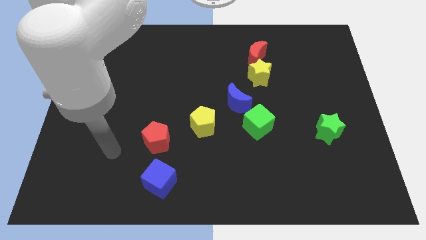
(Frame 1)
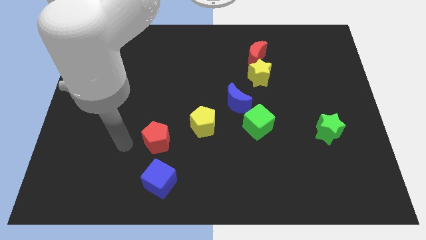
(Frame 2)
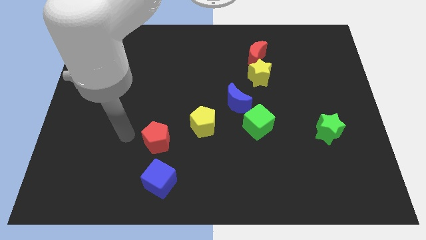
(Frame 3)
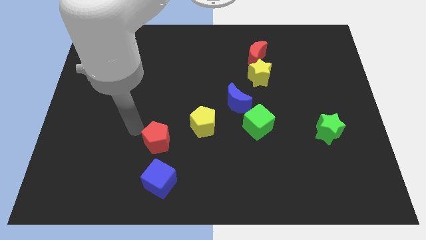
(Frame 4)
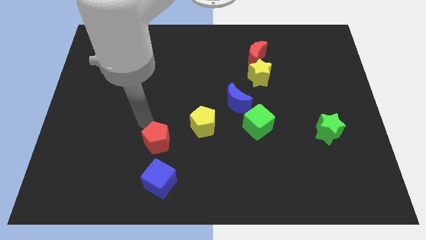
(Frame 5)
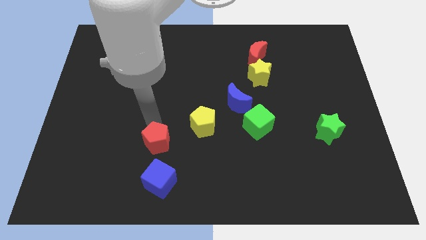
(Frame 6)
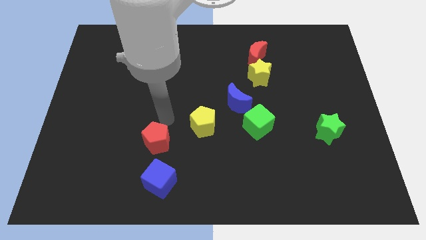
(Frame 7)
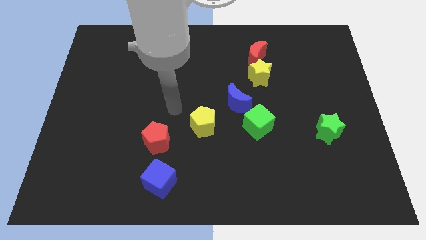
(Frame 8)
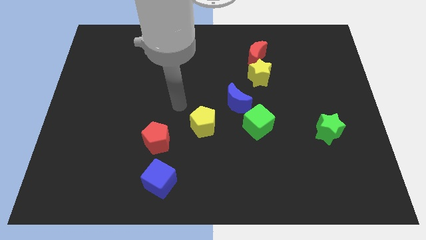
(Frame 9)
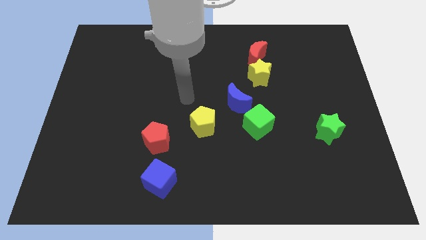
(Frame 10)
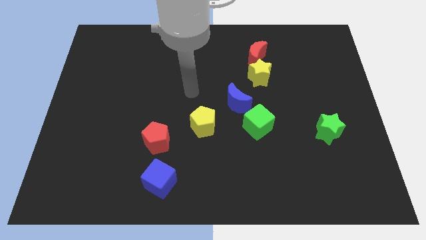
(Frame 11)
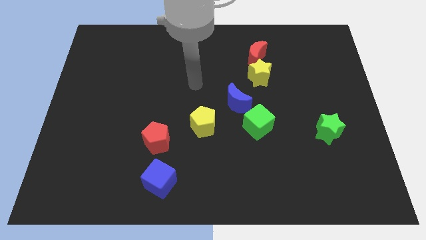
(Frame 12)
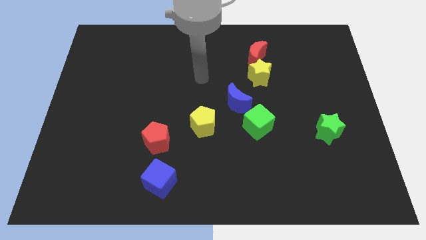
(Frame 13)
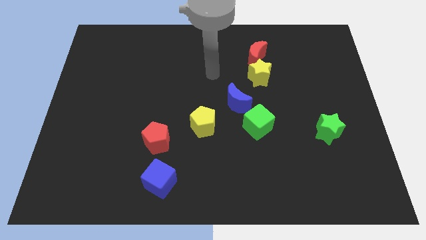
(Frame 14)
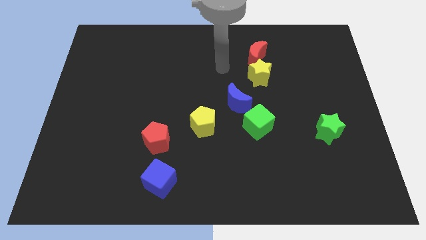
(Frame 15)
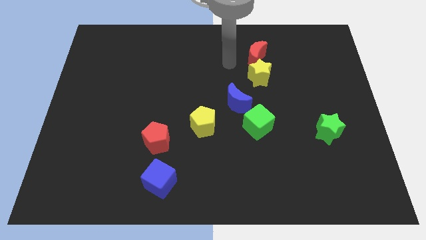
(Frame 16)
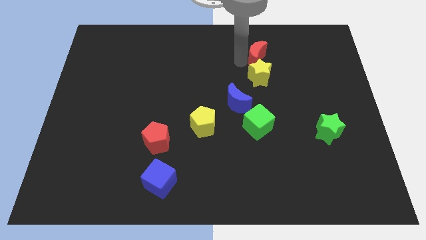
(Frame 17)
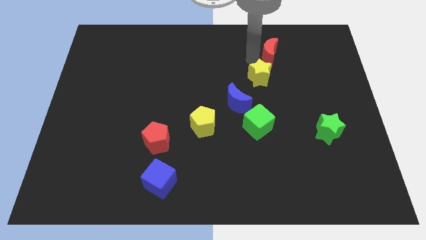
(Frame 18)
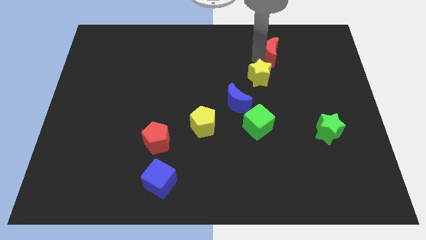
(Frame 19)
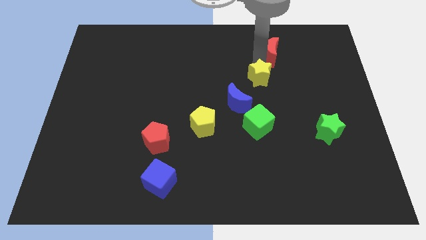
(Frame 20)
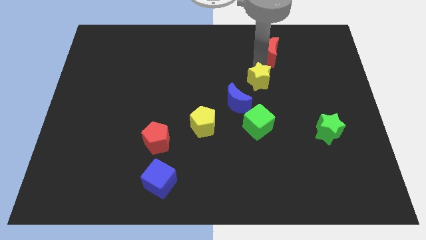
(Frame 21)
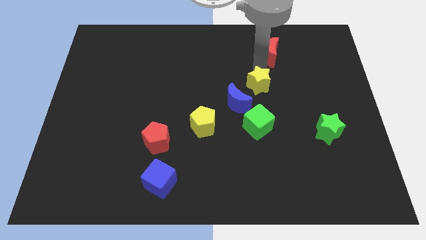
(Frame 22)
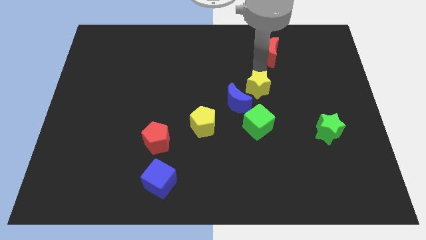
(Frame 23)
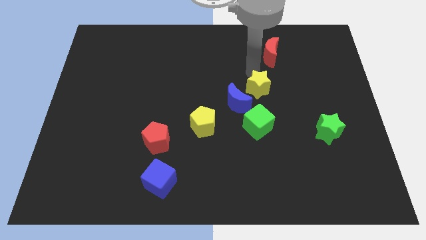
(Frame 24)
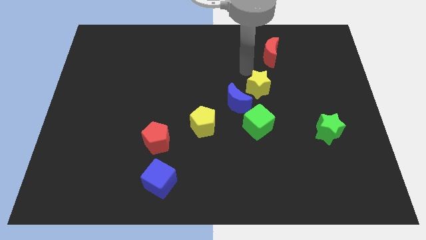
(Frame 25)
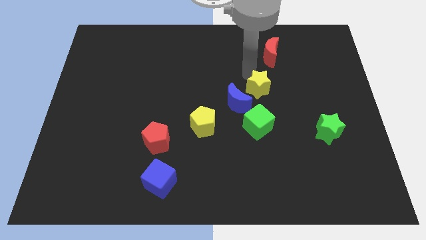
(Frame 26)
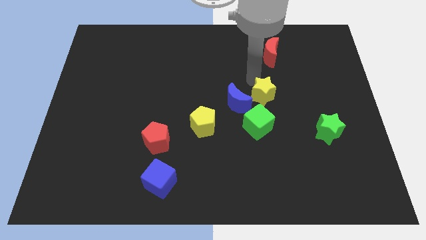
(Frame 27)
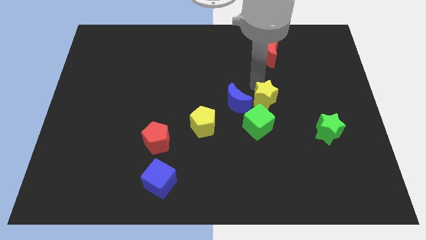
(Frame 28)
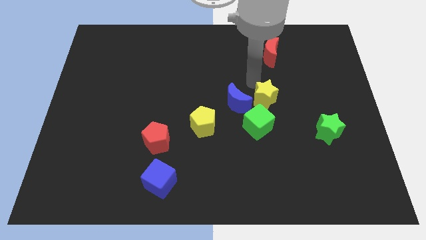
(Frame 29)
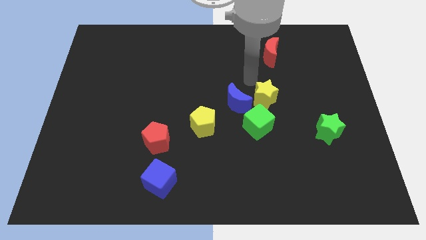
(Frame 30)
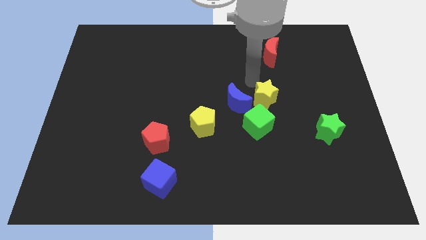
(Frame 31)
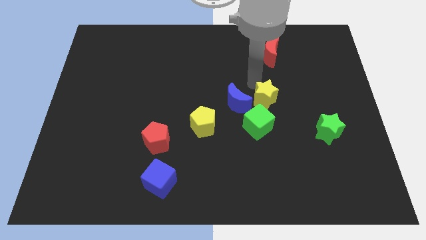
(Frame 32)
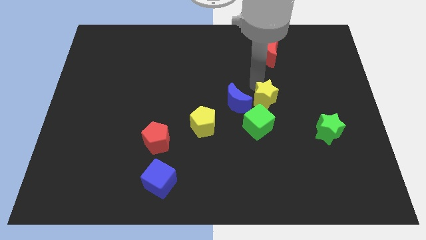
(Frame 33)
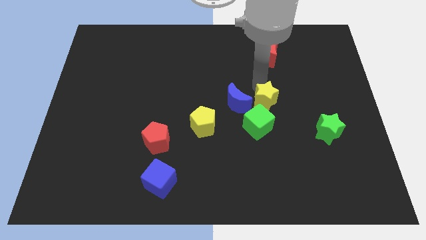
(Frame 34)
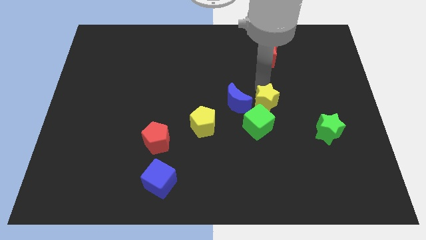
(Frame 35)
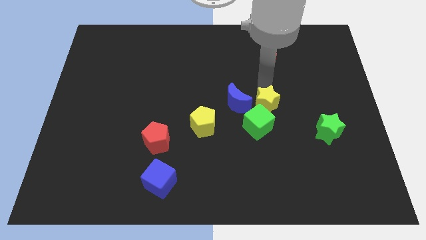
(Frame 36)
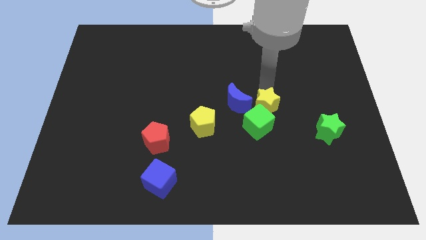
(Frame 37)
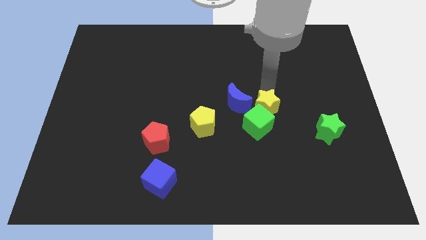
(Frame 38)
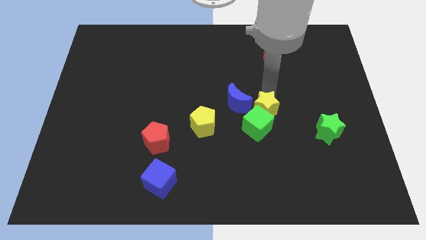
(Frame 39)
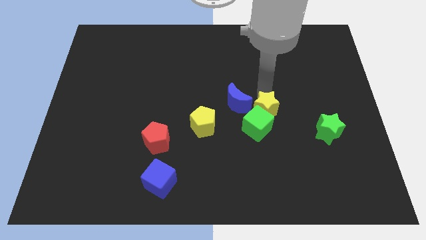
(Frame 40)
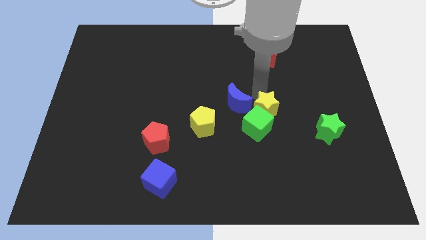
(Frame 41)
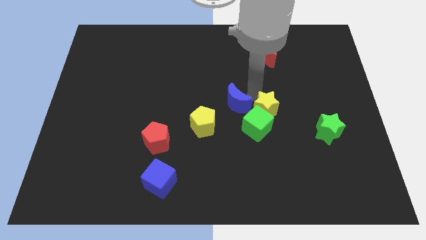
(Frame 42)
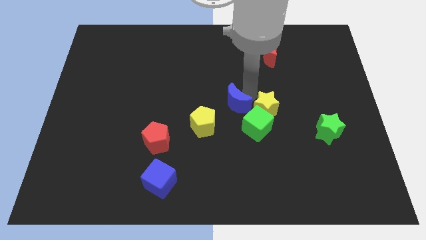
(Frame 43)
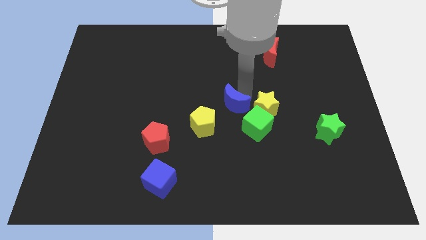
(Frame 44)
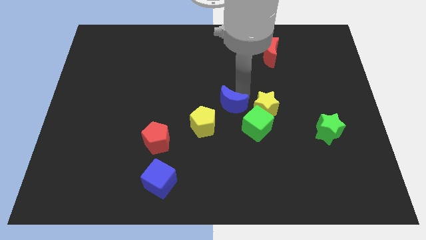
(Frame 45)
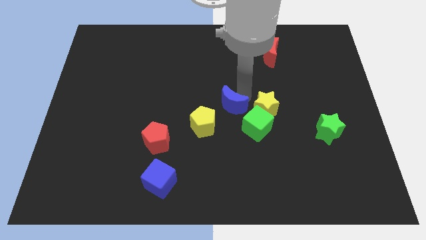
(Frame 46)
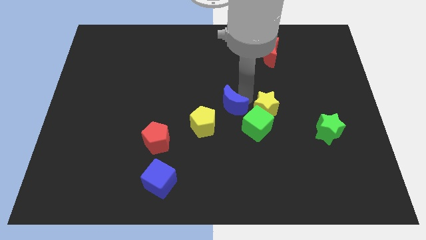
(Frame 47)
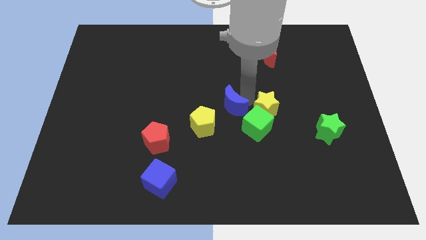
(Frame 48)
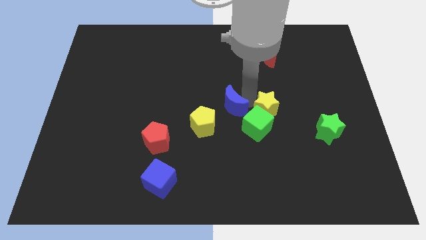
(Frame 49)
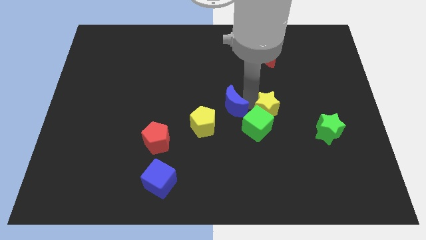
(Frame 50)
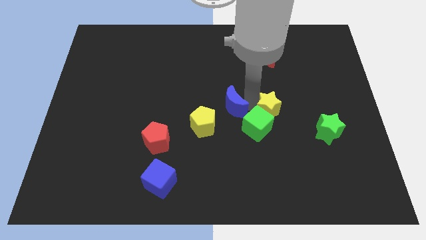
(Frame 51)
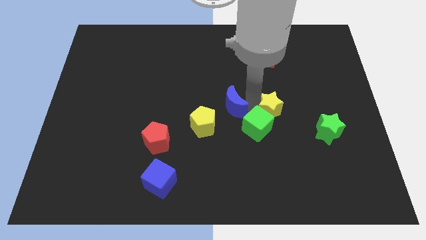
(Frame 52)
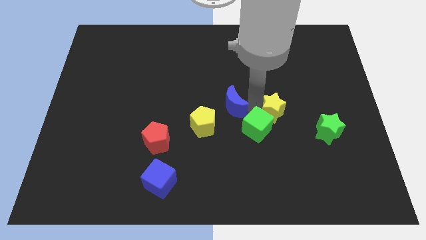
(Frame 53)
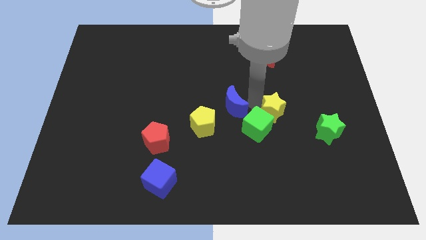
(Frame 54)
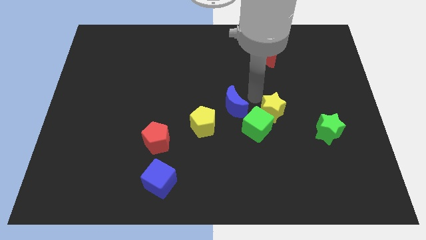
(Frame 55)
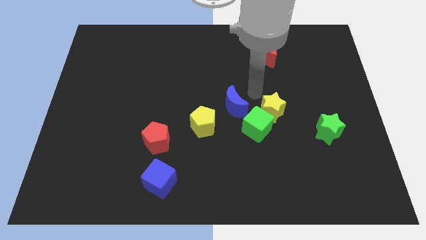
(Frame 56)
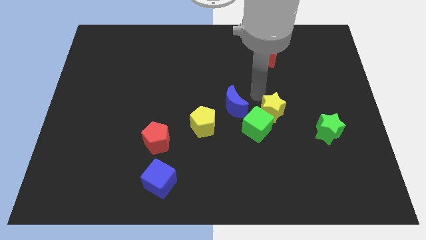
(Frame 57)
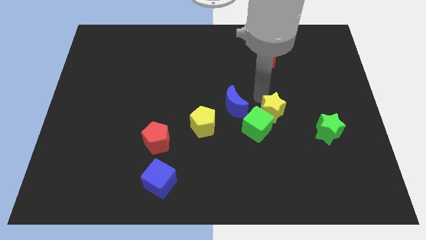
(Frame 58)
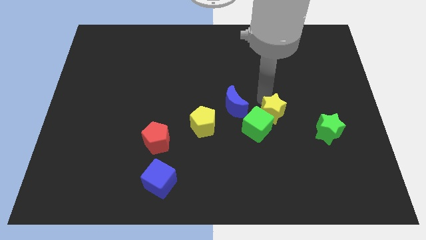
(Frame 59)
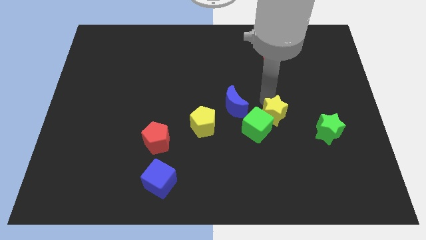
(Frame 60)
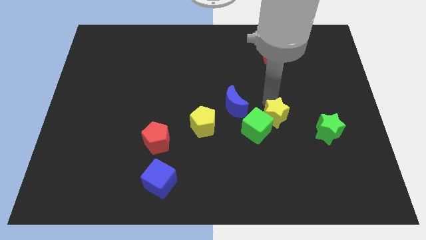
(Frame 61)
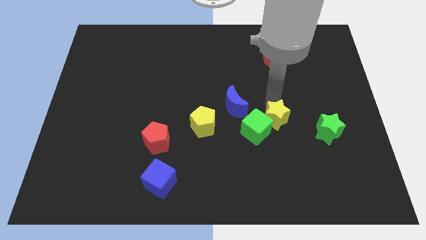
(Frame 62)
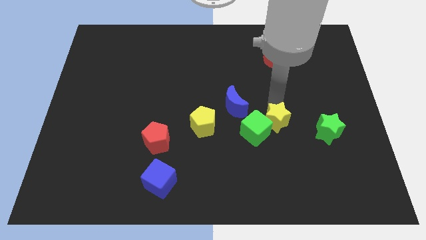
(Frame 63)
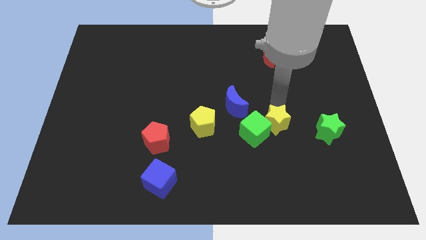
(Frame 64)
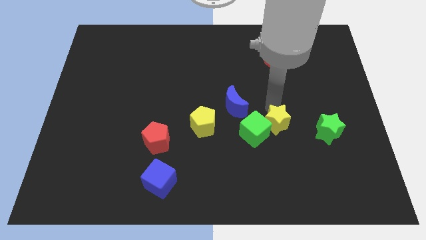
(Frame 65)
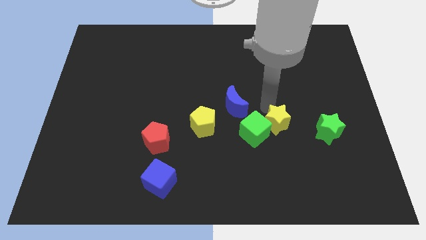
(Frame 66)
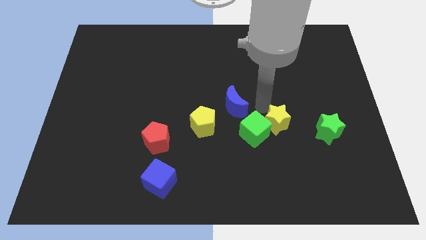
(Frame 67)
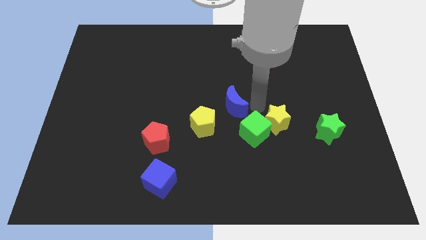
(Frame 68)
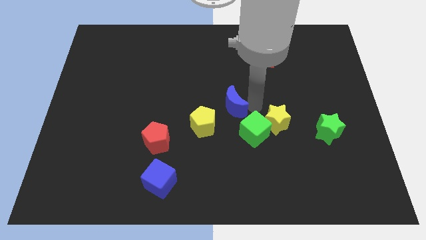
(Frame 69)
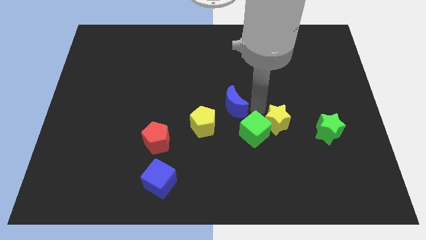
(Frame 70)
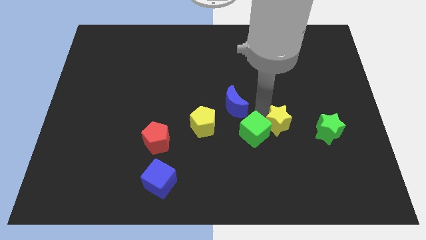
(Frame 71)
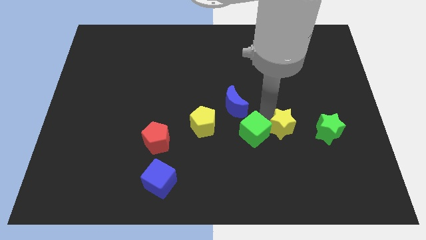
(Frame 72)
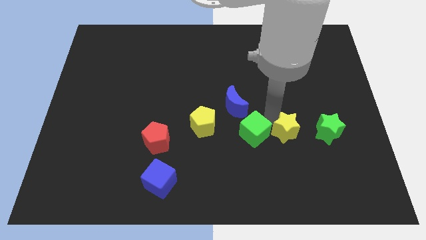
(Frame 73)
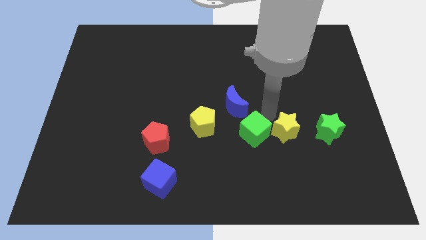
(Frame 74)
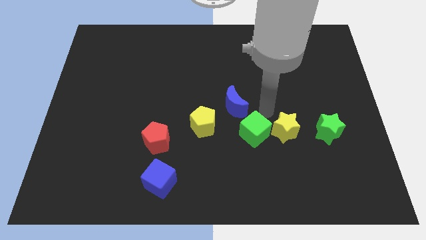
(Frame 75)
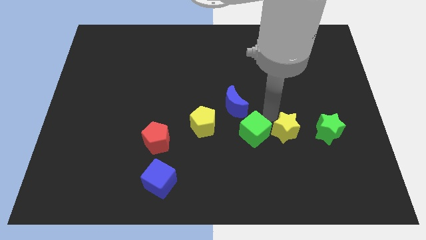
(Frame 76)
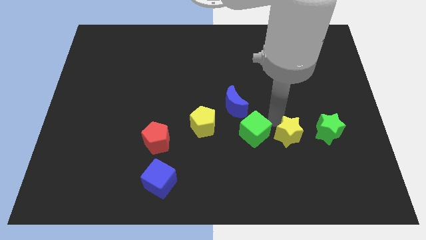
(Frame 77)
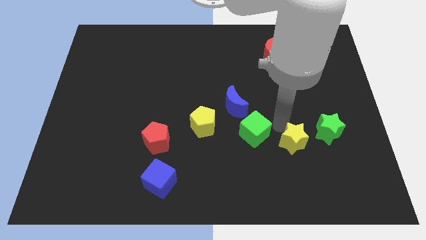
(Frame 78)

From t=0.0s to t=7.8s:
put the yellow star to the bottom left side of the green star
